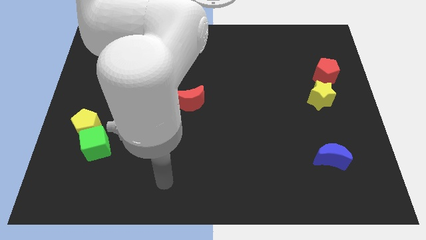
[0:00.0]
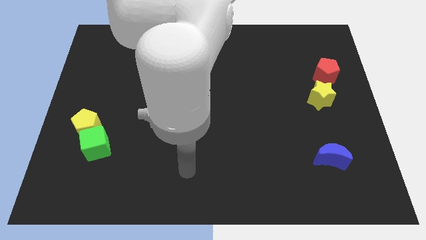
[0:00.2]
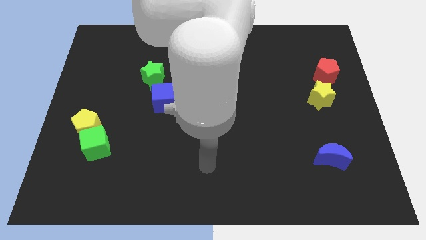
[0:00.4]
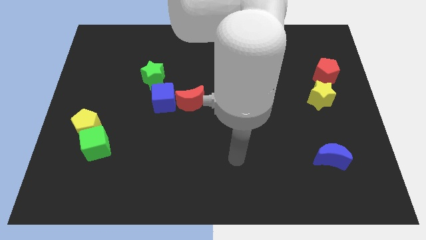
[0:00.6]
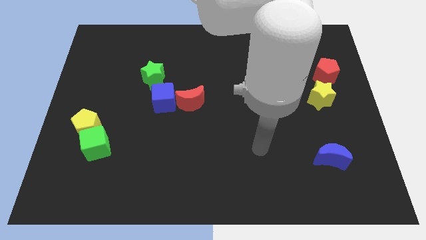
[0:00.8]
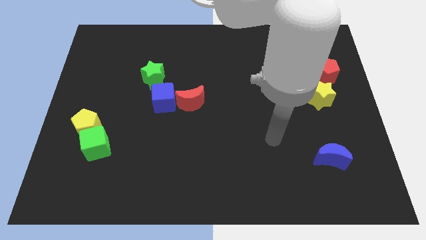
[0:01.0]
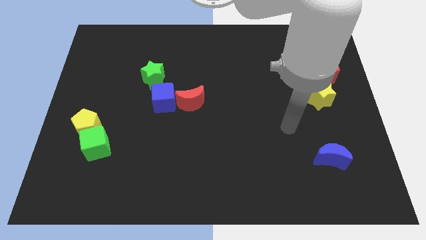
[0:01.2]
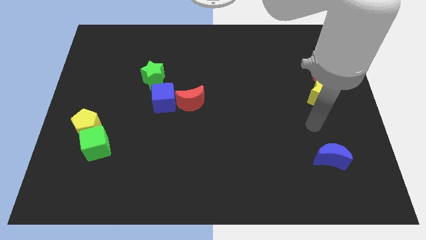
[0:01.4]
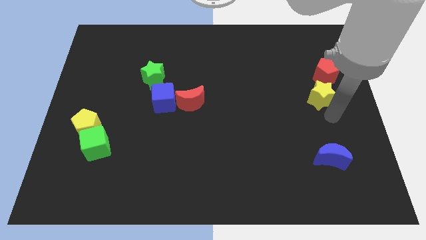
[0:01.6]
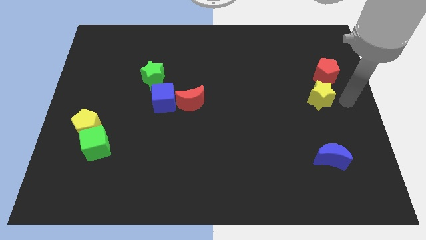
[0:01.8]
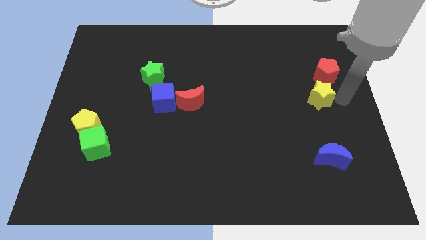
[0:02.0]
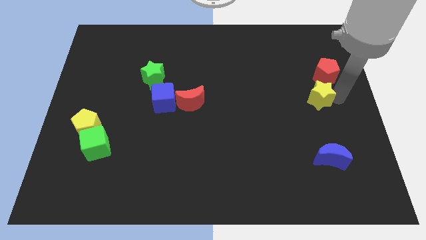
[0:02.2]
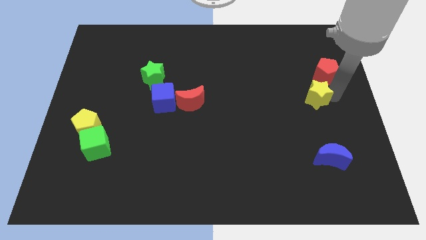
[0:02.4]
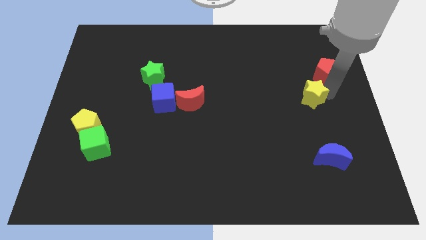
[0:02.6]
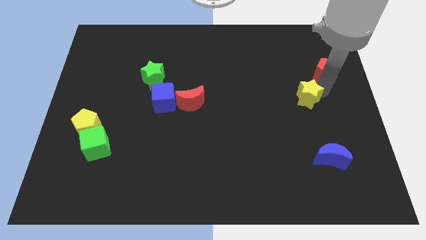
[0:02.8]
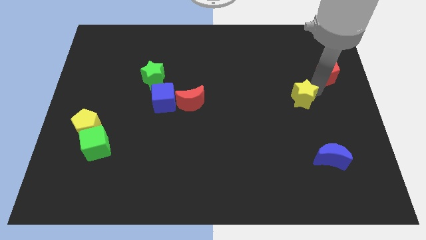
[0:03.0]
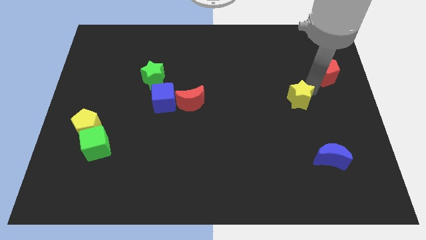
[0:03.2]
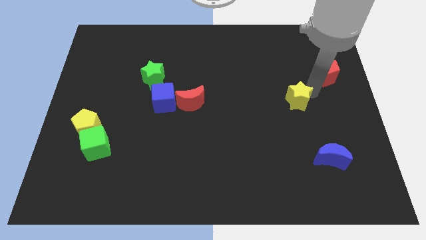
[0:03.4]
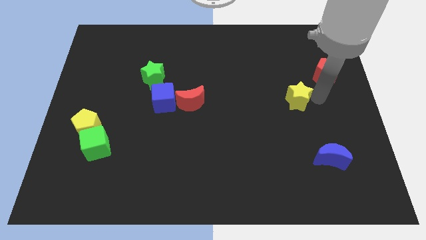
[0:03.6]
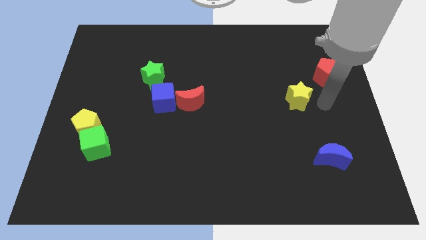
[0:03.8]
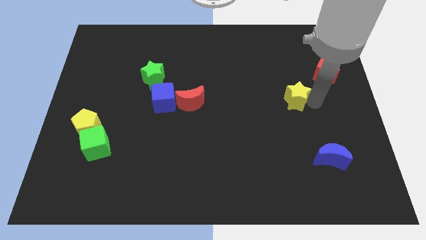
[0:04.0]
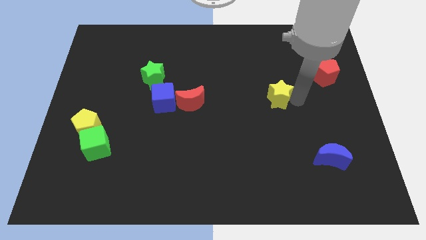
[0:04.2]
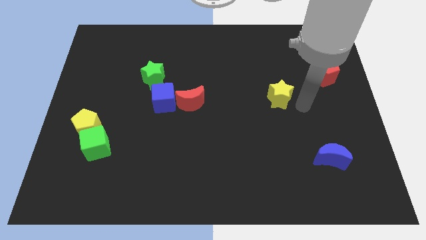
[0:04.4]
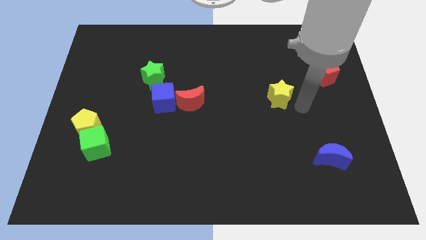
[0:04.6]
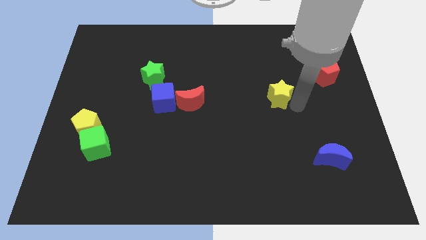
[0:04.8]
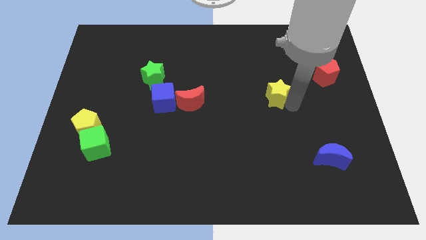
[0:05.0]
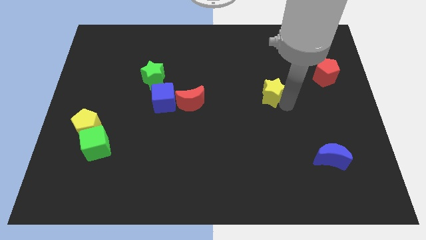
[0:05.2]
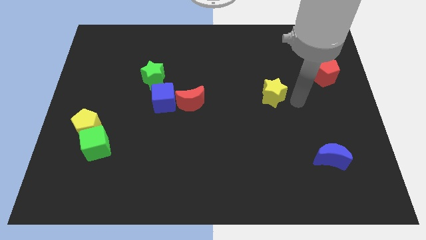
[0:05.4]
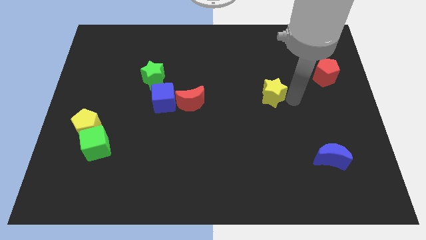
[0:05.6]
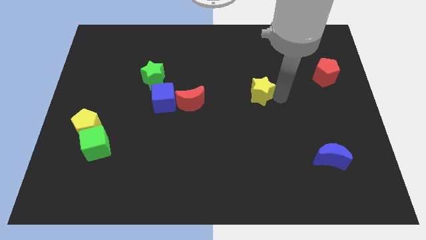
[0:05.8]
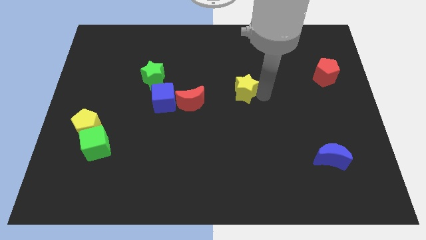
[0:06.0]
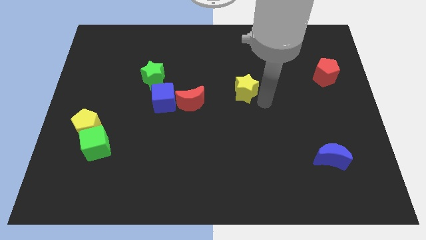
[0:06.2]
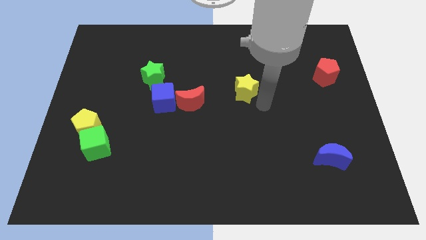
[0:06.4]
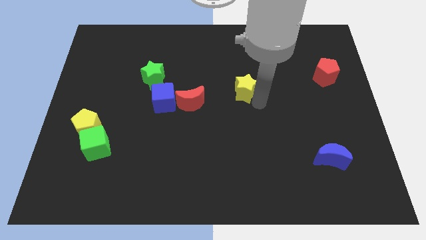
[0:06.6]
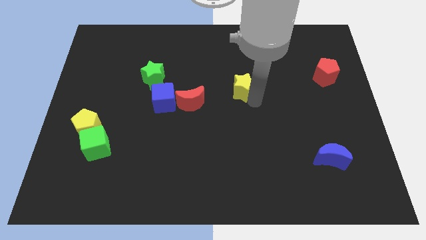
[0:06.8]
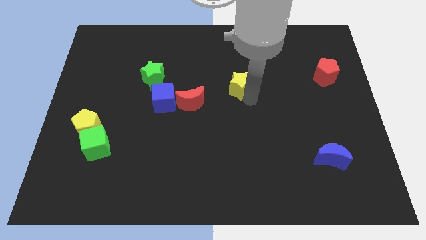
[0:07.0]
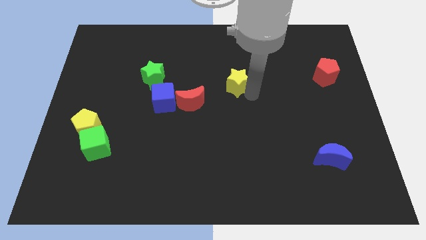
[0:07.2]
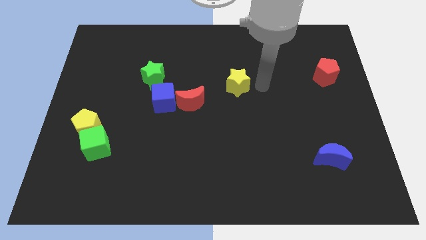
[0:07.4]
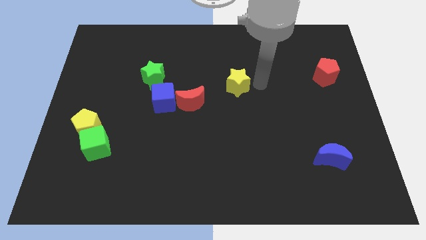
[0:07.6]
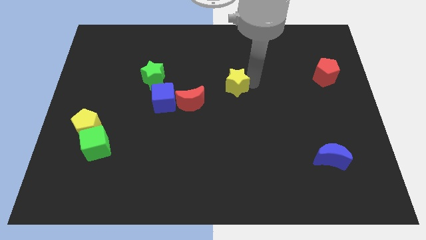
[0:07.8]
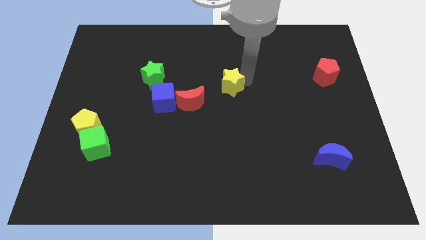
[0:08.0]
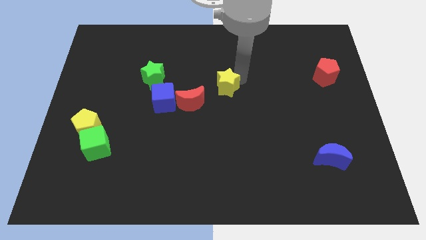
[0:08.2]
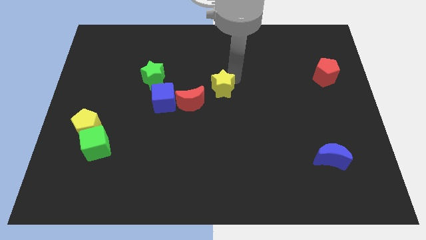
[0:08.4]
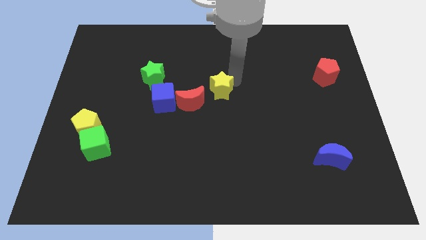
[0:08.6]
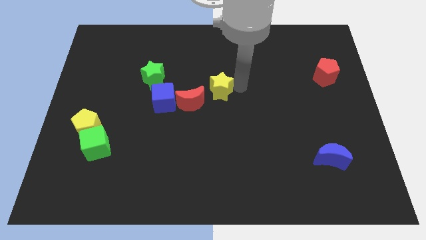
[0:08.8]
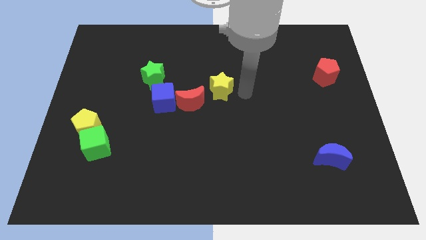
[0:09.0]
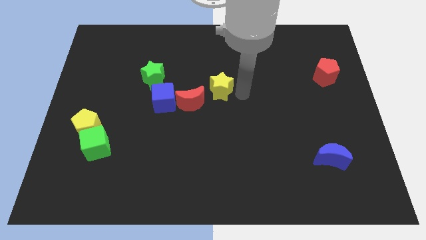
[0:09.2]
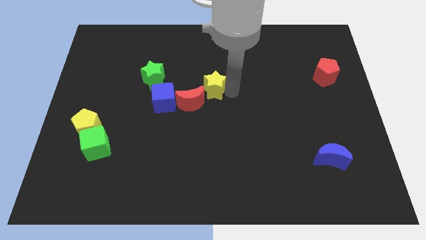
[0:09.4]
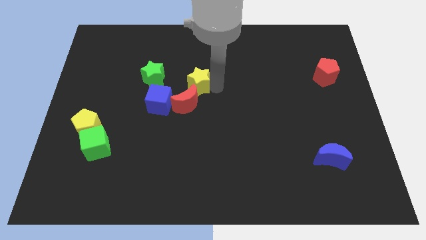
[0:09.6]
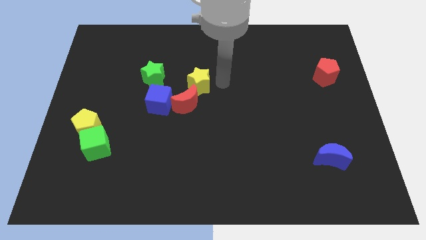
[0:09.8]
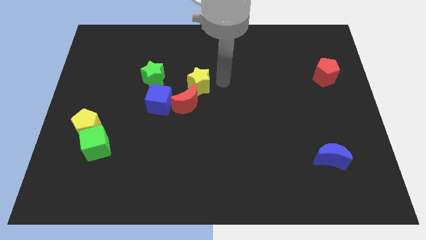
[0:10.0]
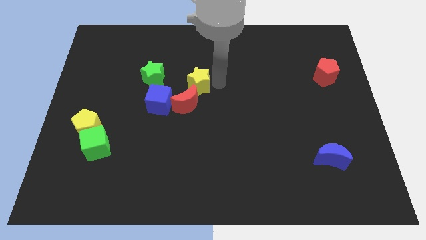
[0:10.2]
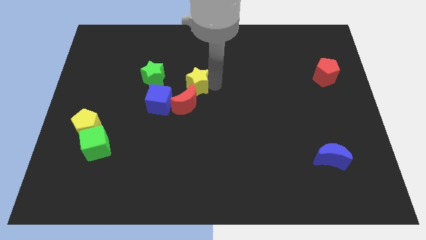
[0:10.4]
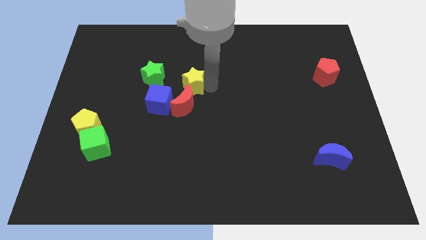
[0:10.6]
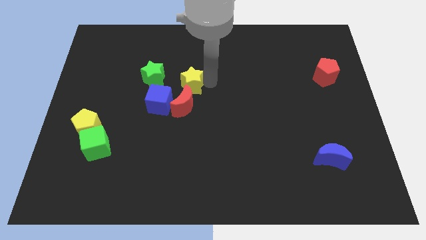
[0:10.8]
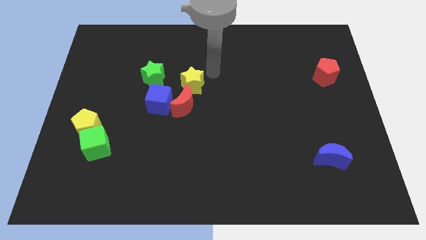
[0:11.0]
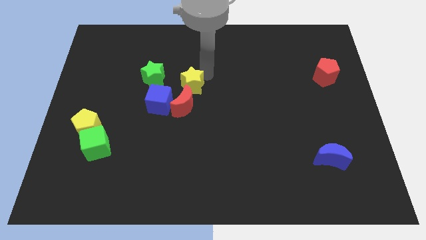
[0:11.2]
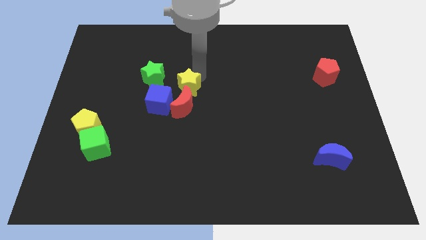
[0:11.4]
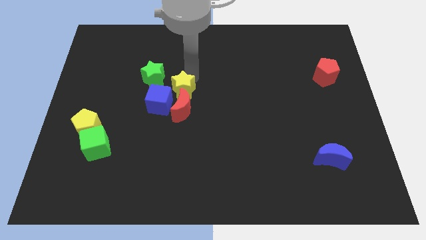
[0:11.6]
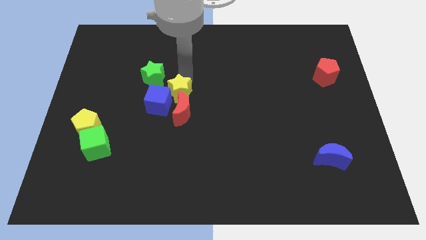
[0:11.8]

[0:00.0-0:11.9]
push the yellow star close to the blue cube

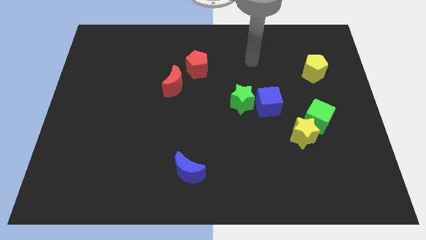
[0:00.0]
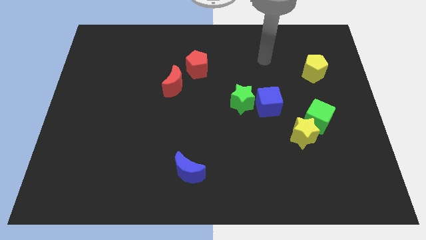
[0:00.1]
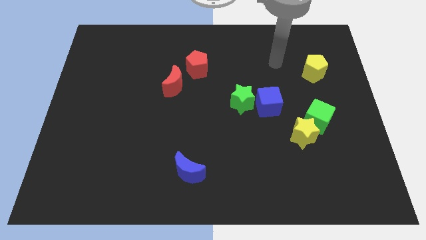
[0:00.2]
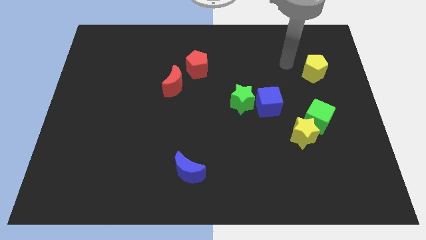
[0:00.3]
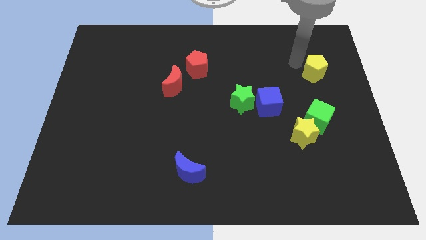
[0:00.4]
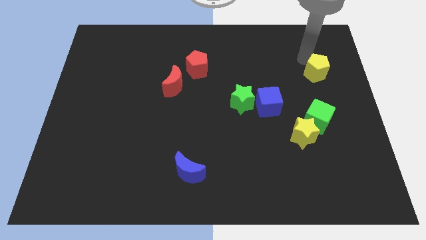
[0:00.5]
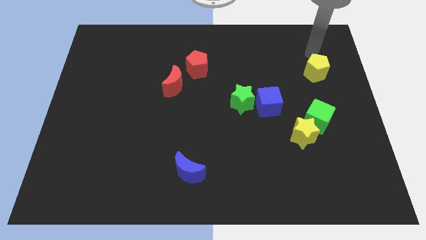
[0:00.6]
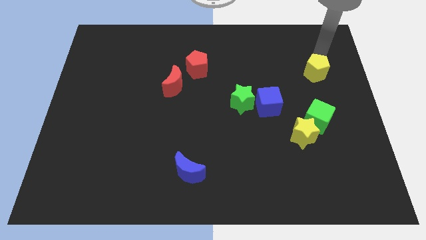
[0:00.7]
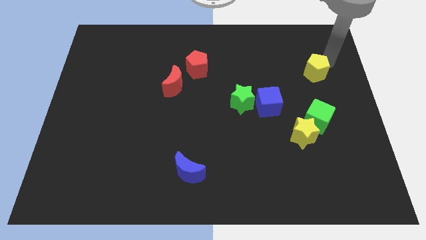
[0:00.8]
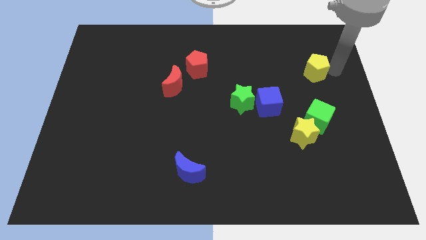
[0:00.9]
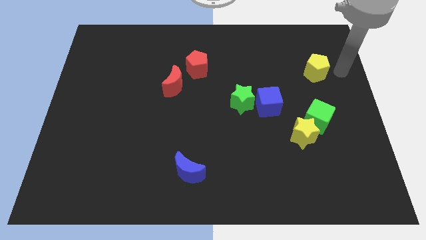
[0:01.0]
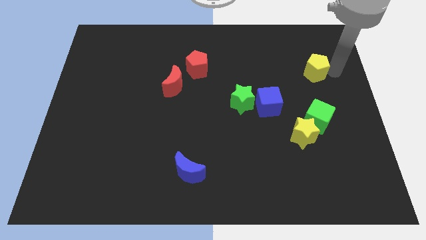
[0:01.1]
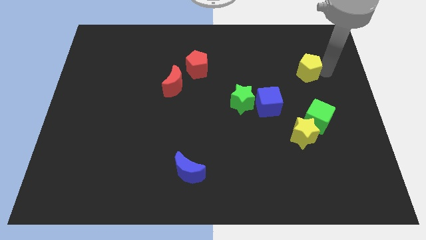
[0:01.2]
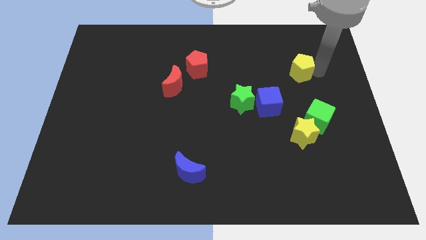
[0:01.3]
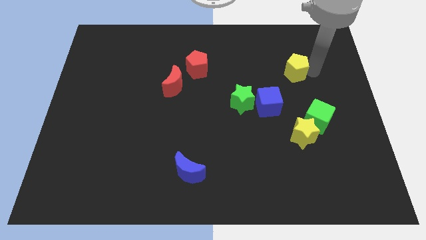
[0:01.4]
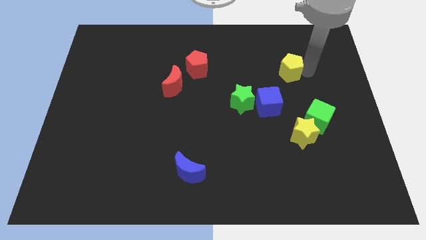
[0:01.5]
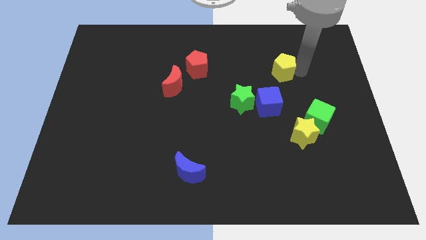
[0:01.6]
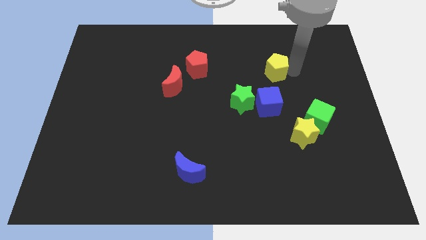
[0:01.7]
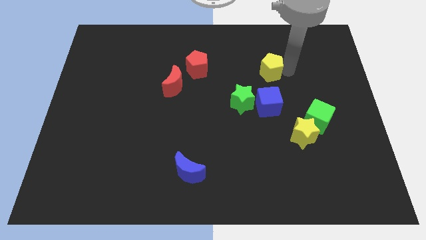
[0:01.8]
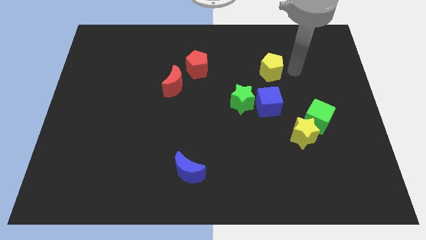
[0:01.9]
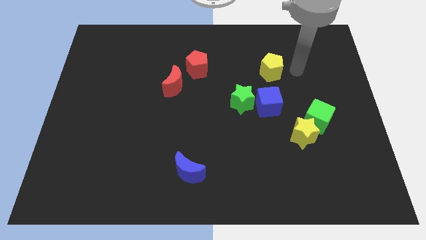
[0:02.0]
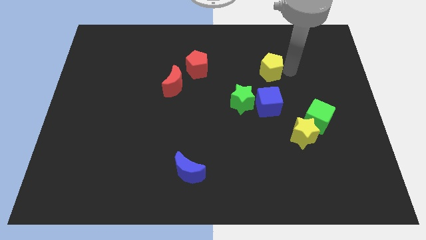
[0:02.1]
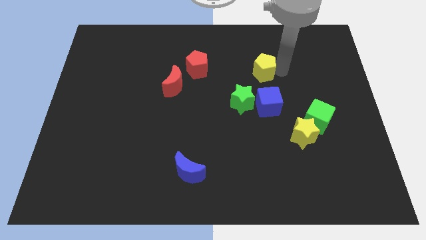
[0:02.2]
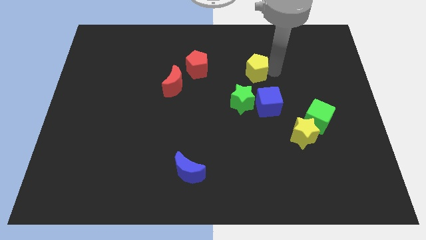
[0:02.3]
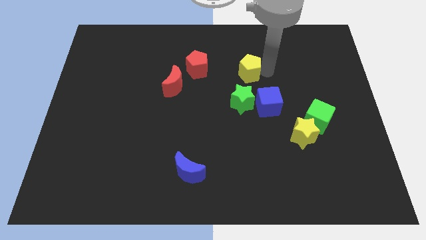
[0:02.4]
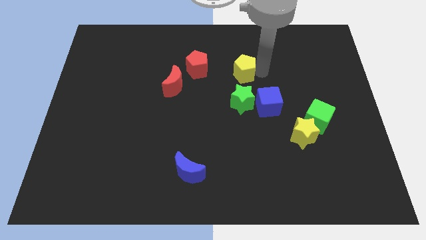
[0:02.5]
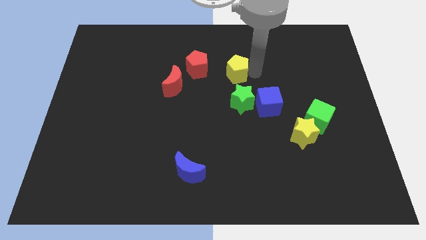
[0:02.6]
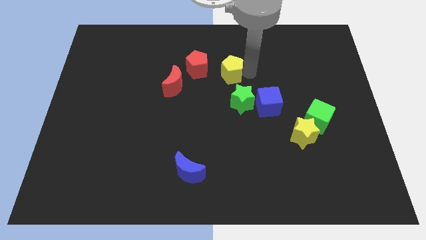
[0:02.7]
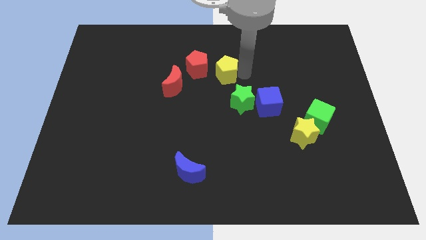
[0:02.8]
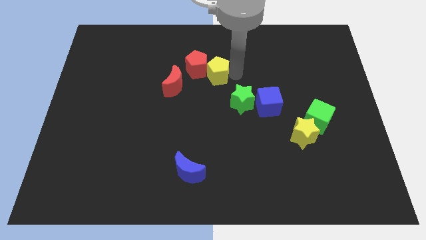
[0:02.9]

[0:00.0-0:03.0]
push the yellow pentagon to the red pentagon
